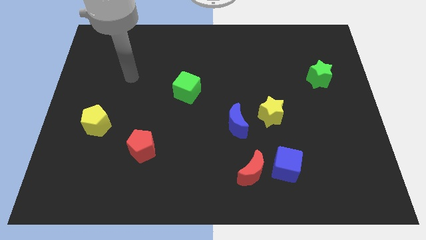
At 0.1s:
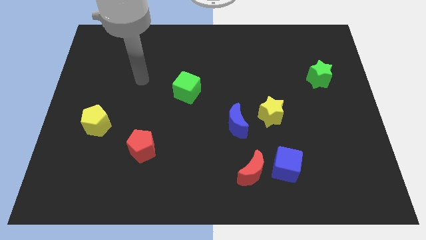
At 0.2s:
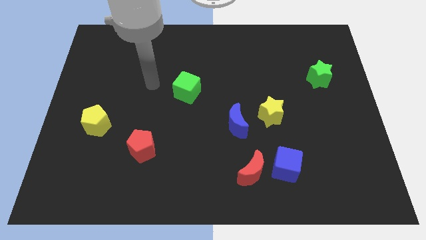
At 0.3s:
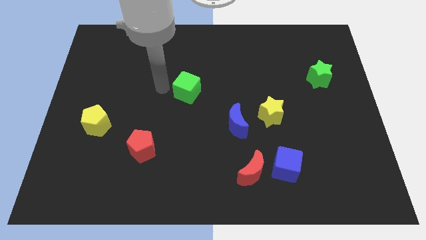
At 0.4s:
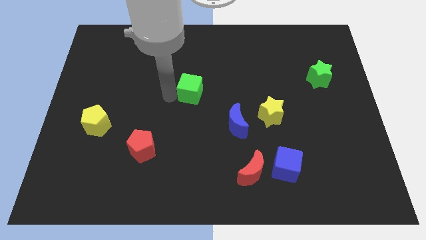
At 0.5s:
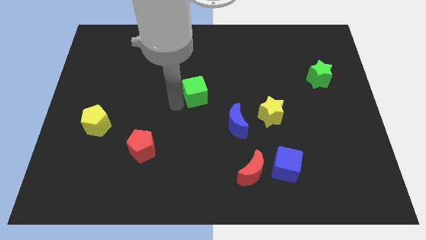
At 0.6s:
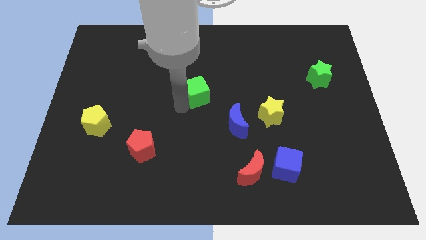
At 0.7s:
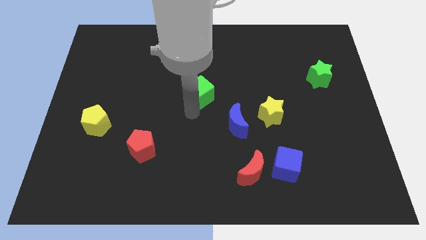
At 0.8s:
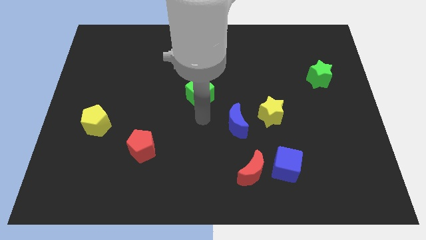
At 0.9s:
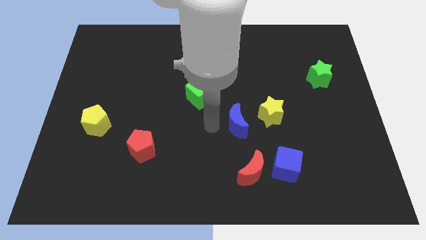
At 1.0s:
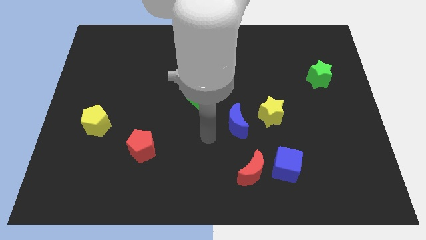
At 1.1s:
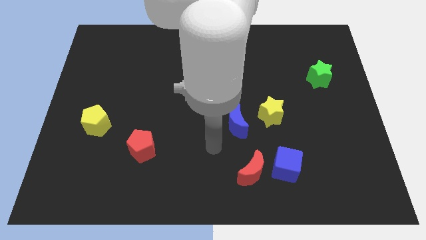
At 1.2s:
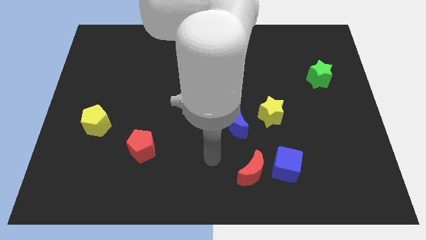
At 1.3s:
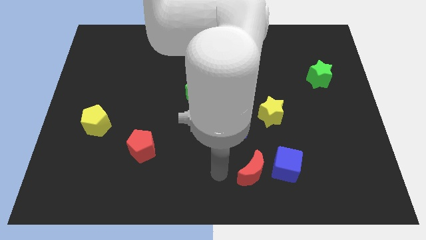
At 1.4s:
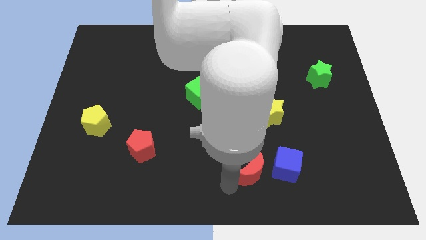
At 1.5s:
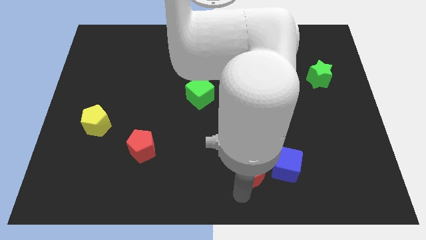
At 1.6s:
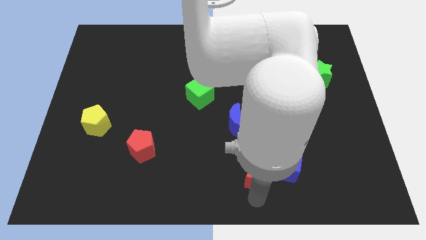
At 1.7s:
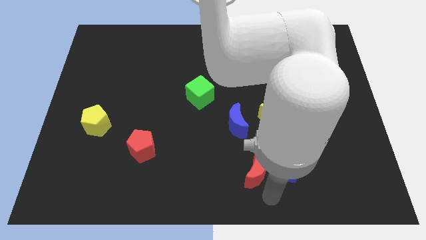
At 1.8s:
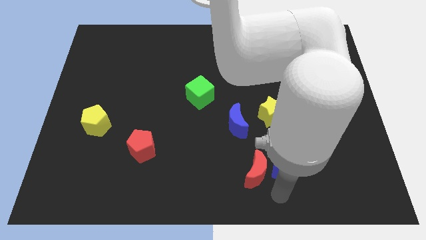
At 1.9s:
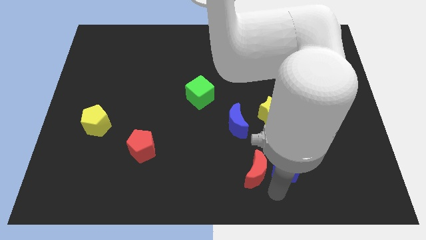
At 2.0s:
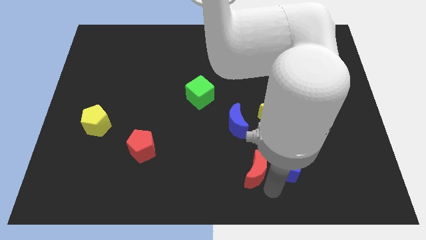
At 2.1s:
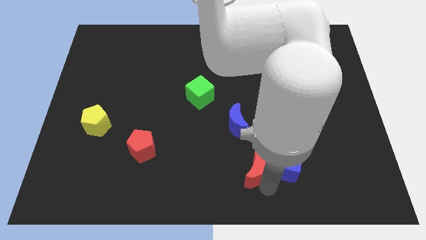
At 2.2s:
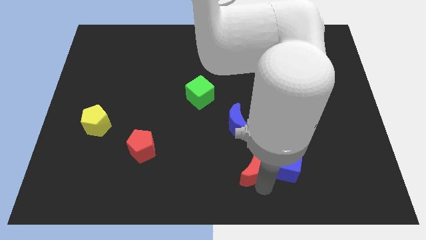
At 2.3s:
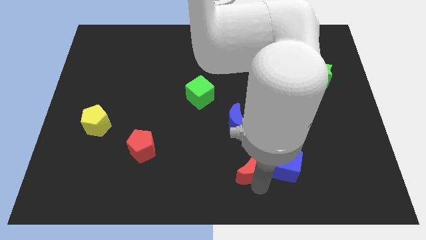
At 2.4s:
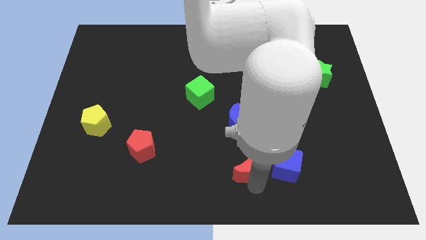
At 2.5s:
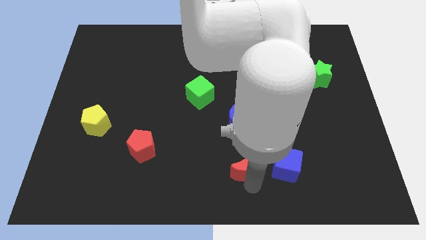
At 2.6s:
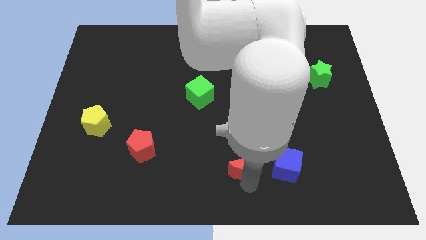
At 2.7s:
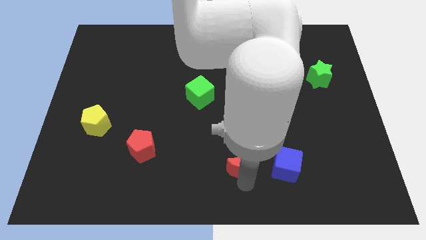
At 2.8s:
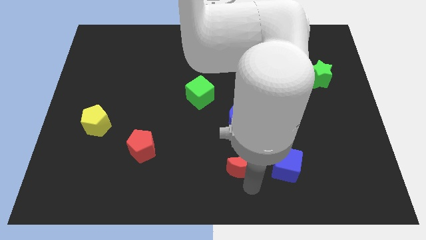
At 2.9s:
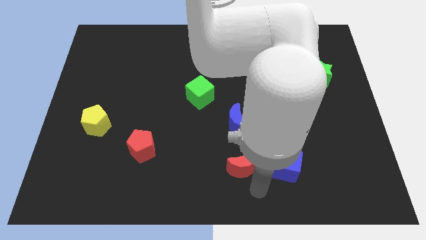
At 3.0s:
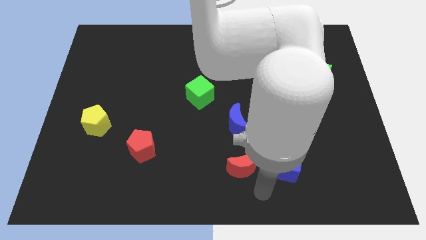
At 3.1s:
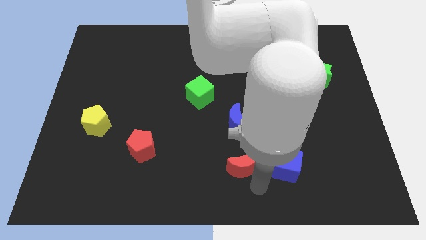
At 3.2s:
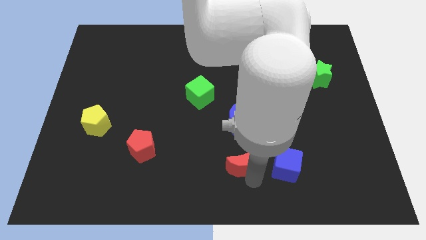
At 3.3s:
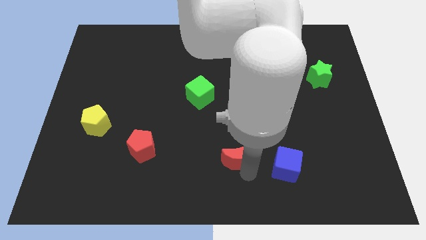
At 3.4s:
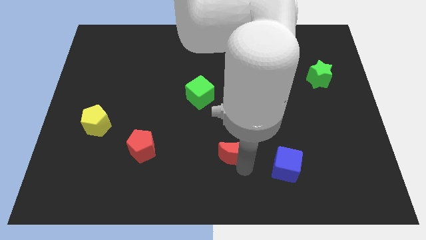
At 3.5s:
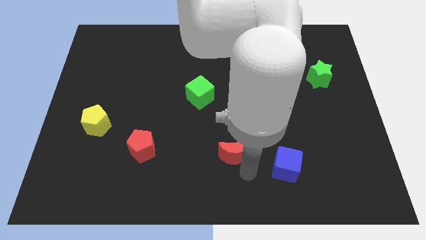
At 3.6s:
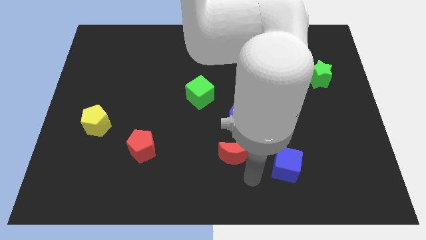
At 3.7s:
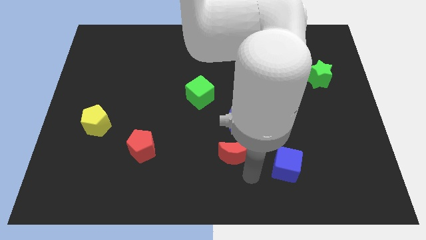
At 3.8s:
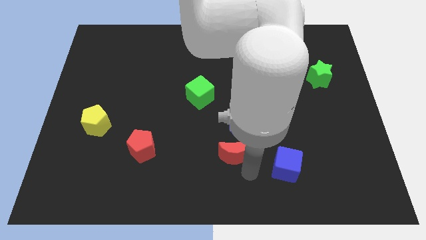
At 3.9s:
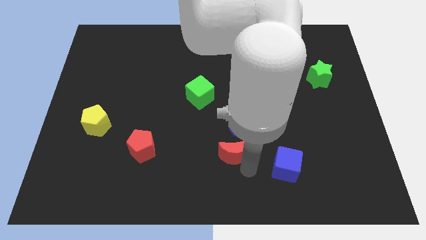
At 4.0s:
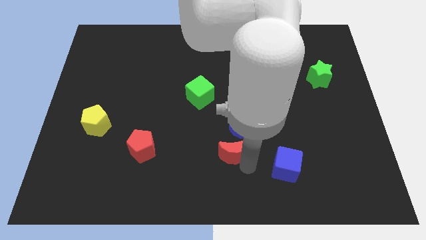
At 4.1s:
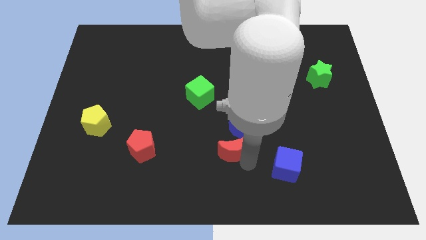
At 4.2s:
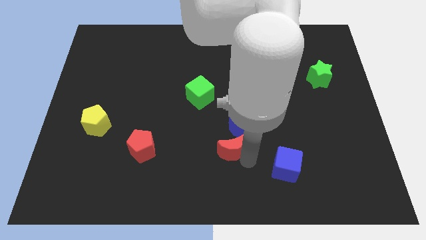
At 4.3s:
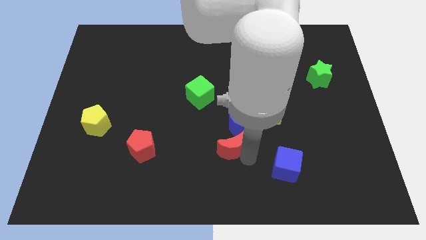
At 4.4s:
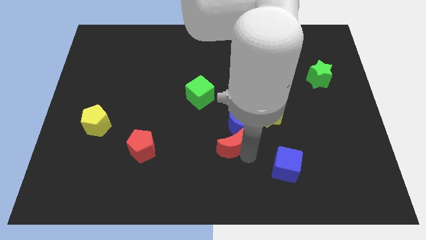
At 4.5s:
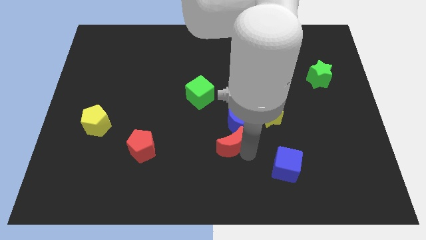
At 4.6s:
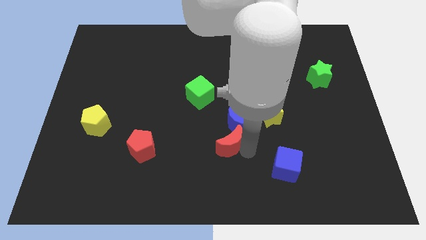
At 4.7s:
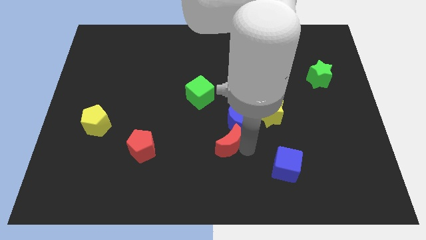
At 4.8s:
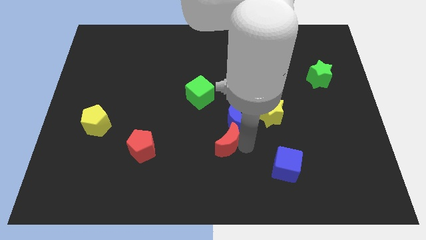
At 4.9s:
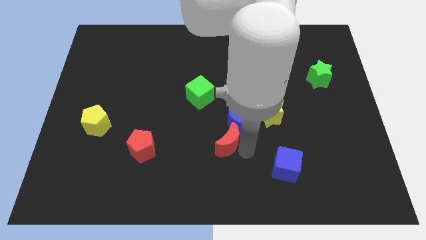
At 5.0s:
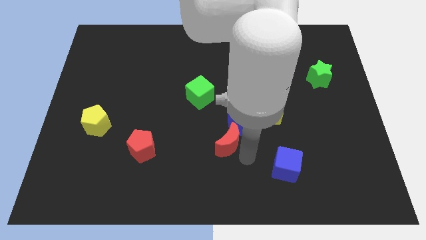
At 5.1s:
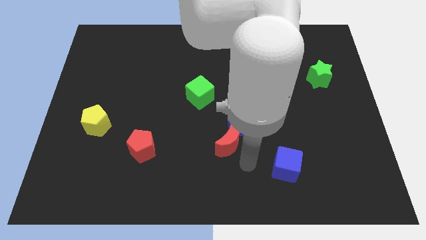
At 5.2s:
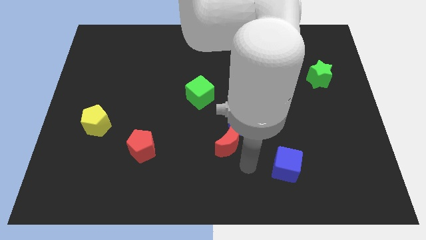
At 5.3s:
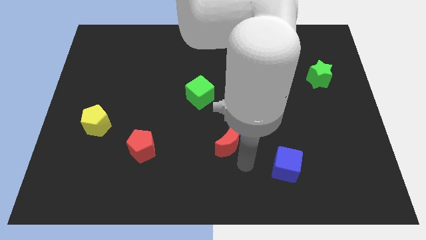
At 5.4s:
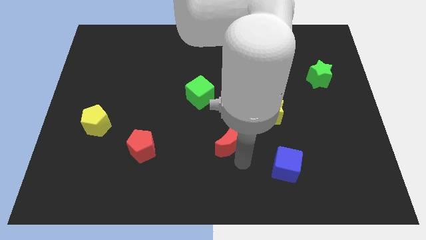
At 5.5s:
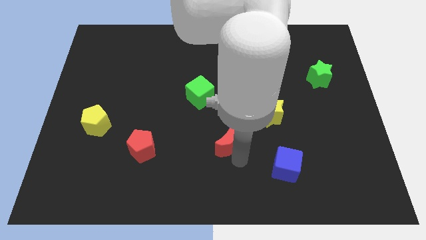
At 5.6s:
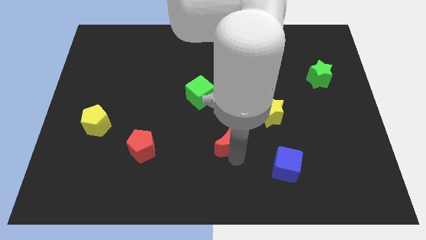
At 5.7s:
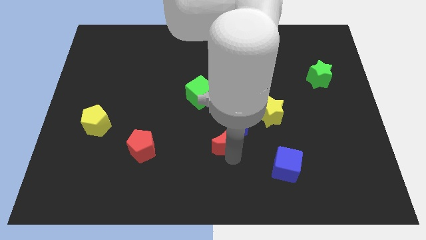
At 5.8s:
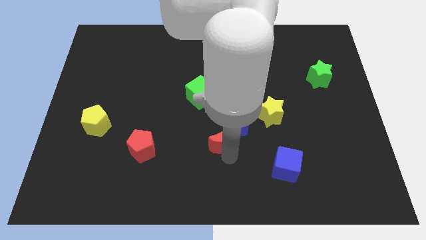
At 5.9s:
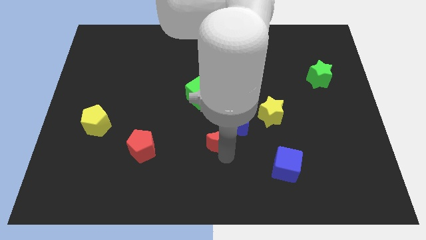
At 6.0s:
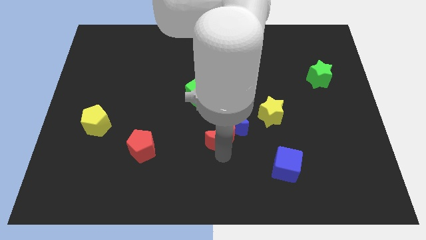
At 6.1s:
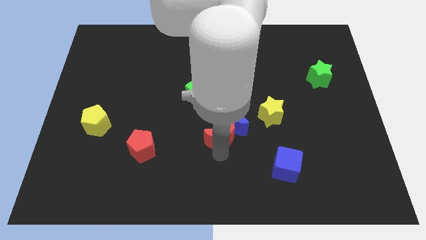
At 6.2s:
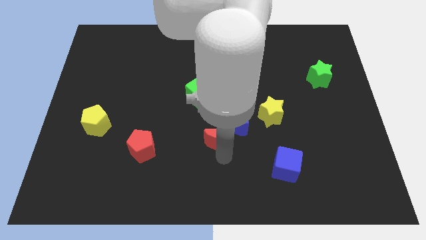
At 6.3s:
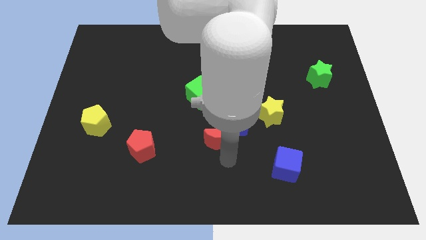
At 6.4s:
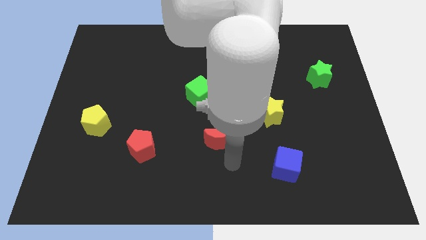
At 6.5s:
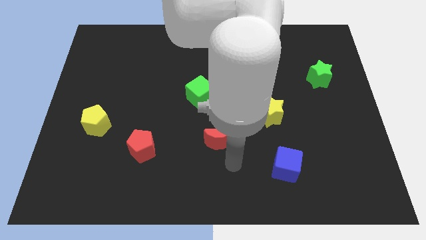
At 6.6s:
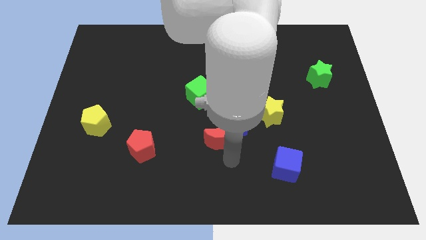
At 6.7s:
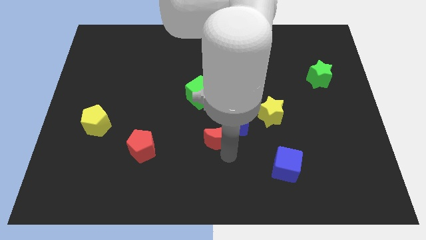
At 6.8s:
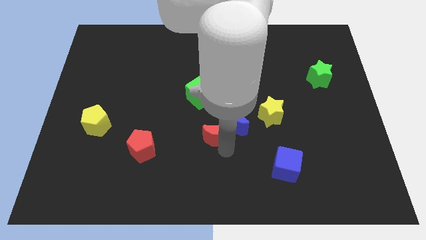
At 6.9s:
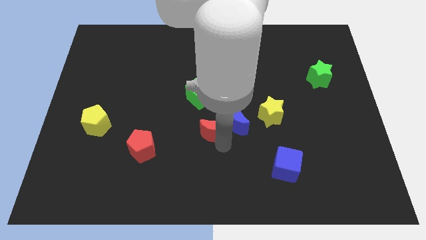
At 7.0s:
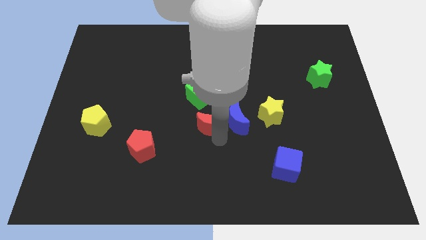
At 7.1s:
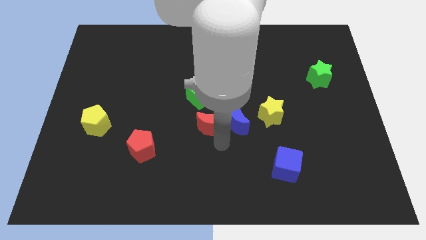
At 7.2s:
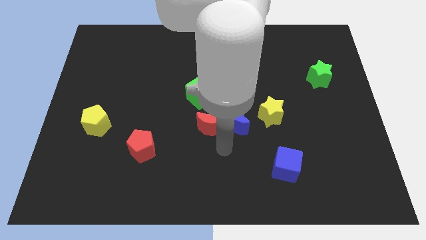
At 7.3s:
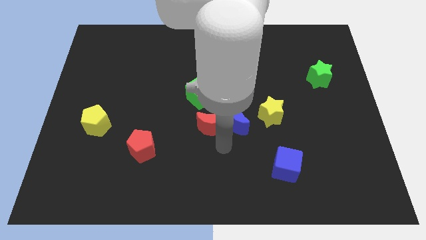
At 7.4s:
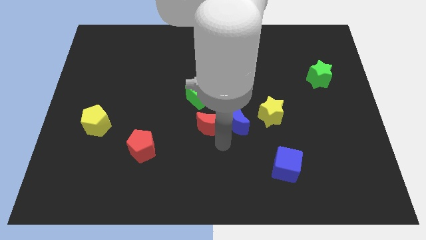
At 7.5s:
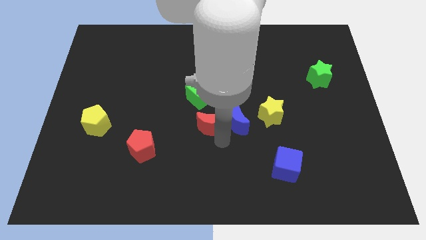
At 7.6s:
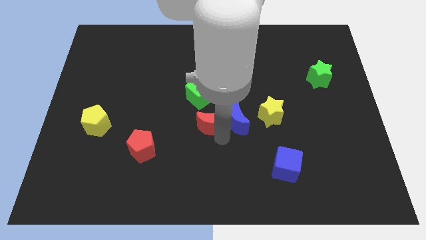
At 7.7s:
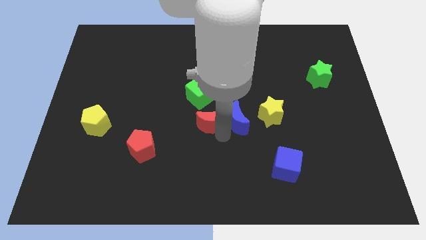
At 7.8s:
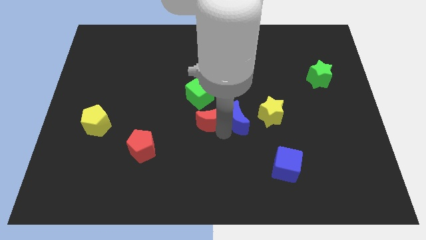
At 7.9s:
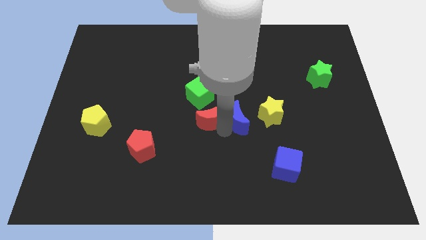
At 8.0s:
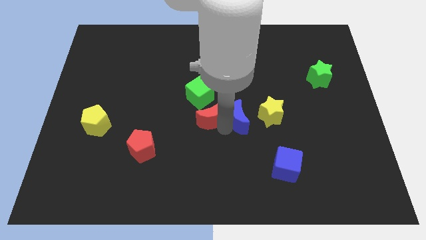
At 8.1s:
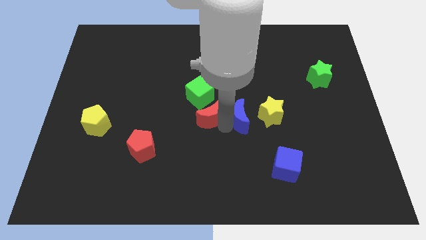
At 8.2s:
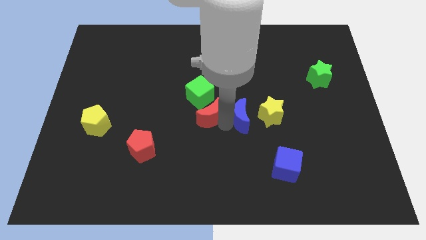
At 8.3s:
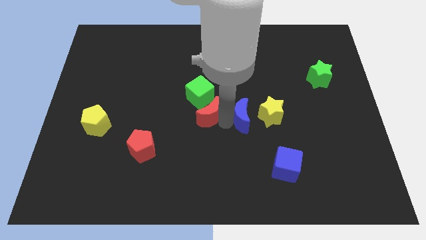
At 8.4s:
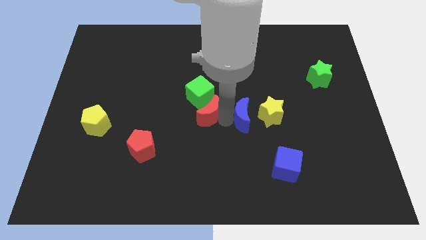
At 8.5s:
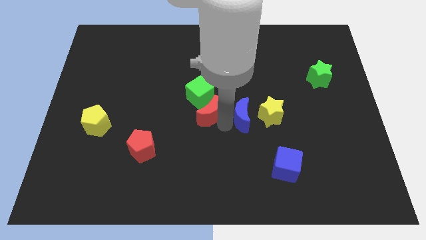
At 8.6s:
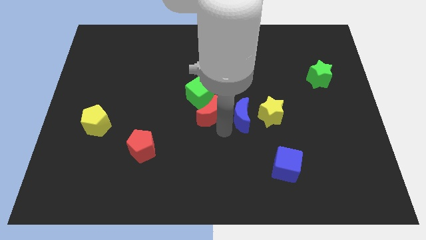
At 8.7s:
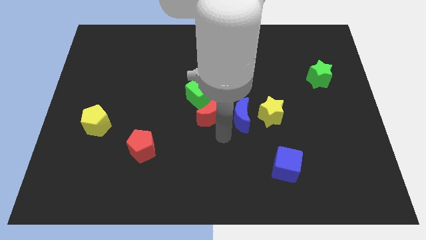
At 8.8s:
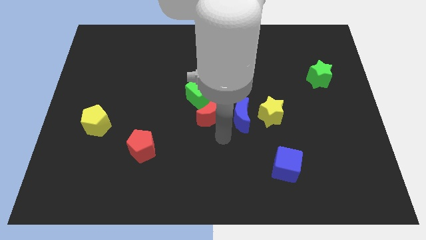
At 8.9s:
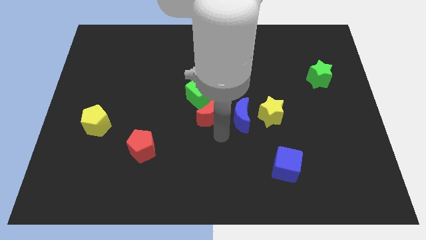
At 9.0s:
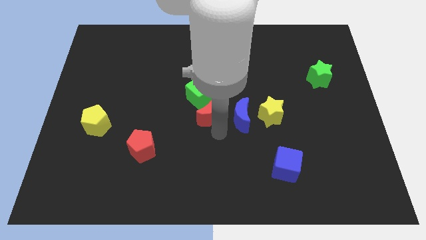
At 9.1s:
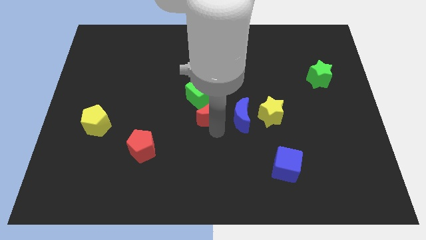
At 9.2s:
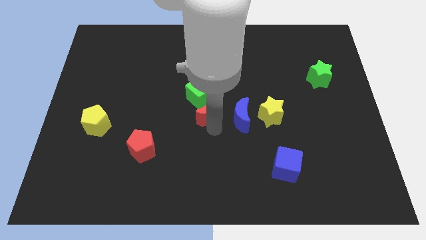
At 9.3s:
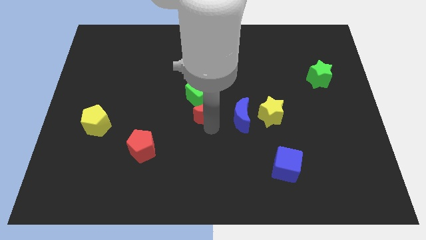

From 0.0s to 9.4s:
slide the red moon next to the green cube
